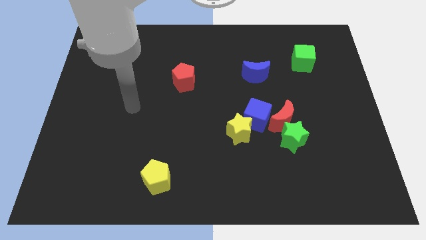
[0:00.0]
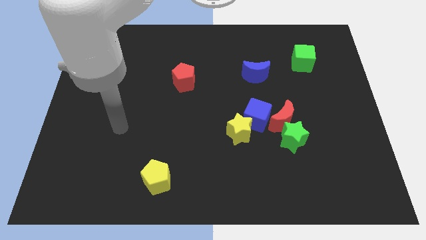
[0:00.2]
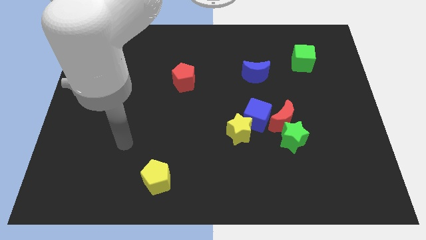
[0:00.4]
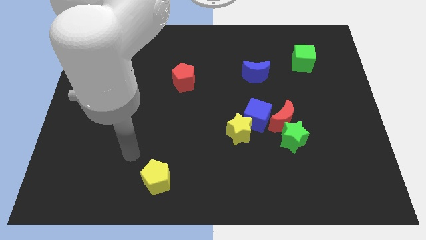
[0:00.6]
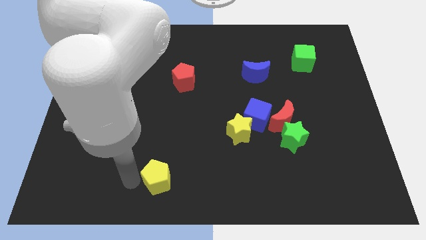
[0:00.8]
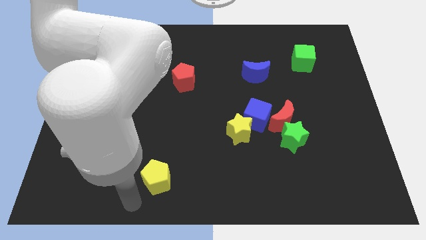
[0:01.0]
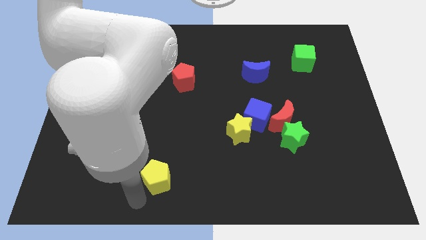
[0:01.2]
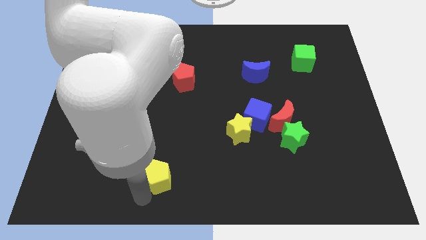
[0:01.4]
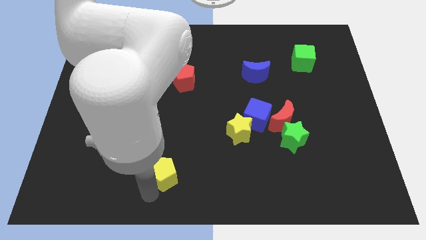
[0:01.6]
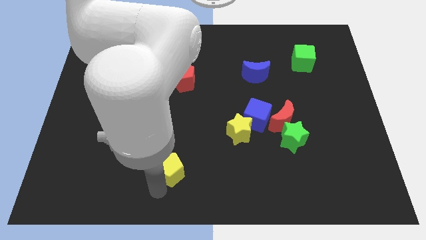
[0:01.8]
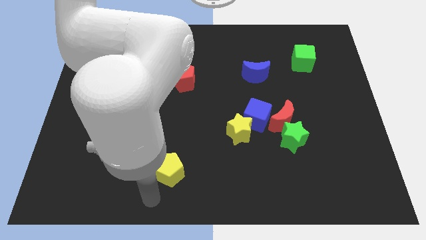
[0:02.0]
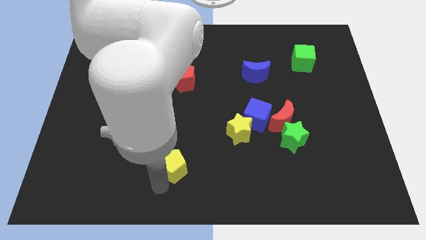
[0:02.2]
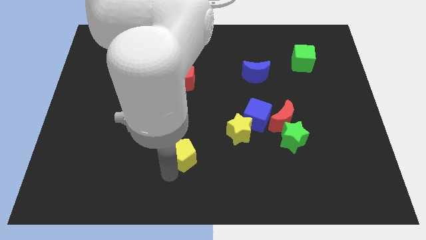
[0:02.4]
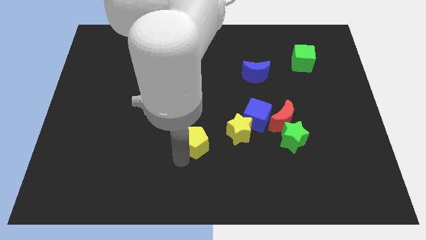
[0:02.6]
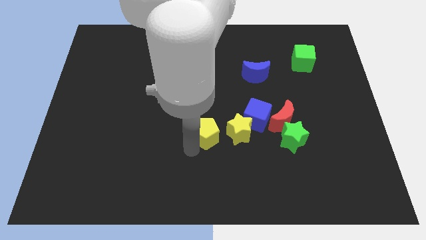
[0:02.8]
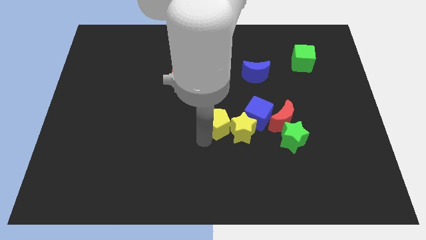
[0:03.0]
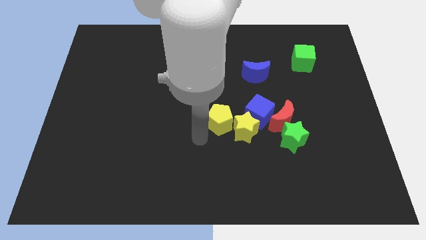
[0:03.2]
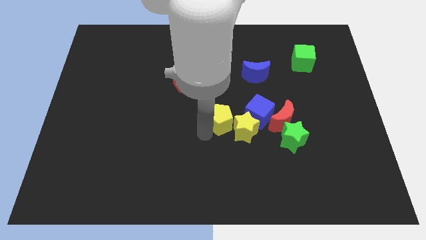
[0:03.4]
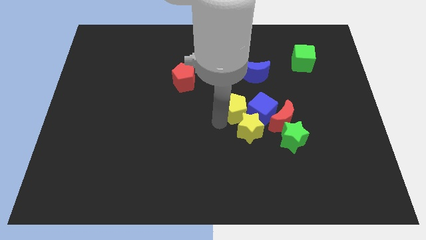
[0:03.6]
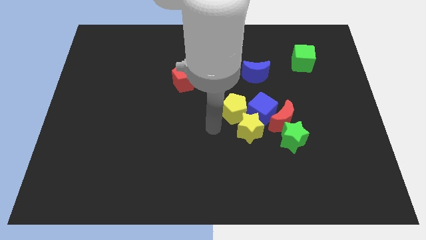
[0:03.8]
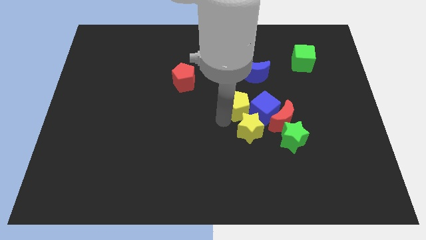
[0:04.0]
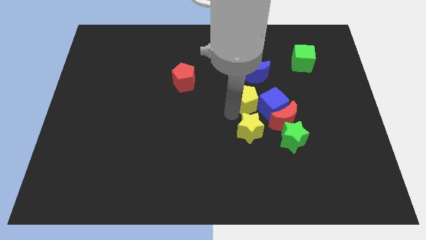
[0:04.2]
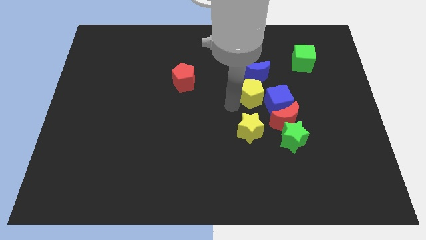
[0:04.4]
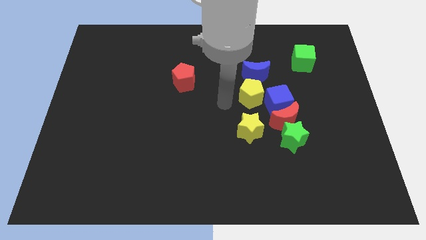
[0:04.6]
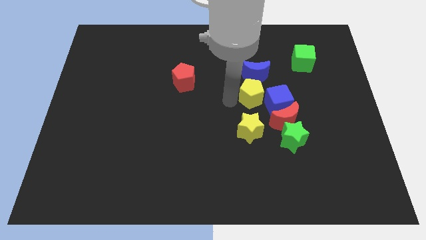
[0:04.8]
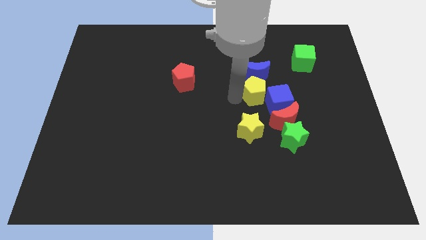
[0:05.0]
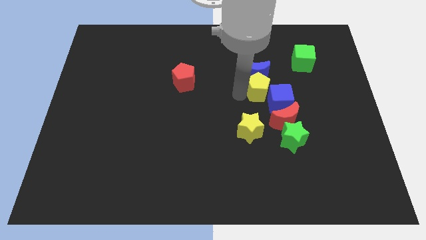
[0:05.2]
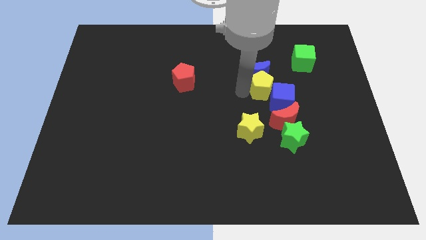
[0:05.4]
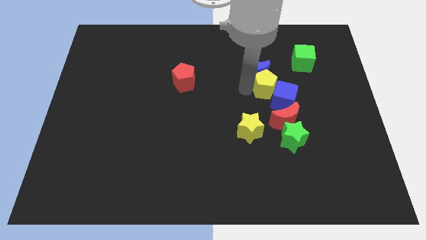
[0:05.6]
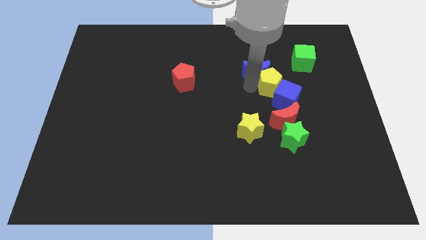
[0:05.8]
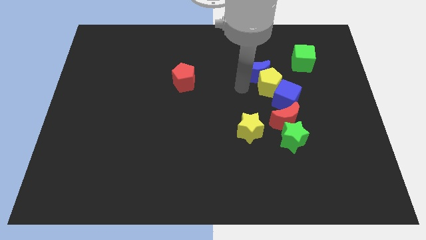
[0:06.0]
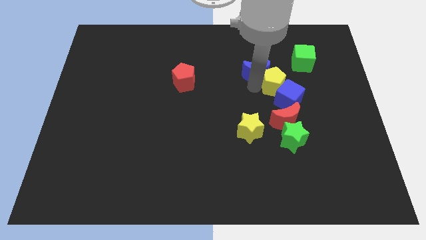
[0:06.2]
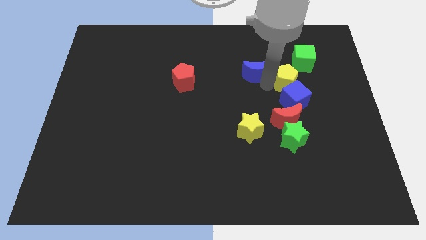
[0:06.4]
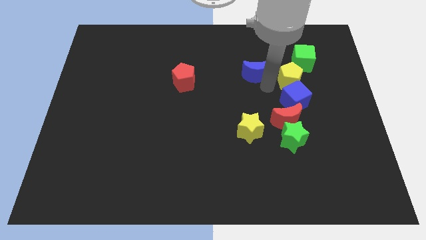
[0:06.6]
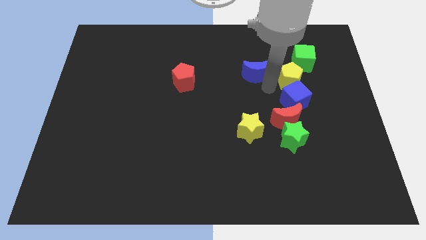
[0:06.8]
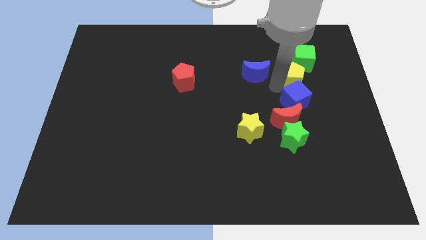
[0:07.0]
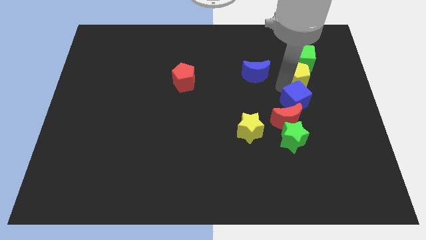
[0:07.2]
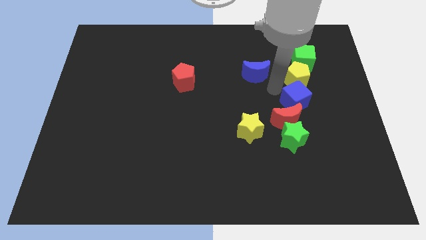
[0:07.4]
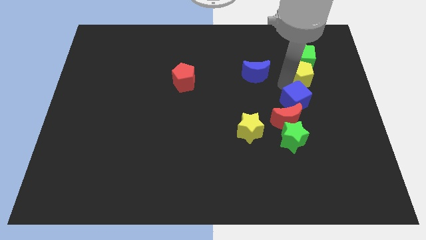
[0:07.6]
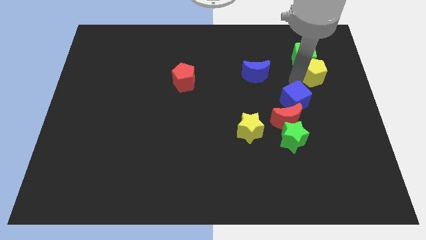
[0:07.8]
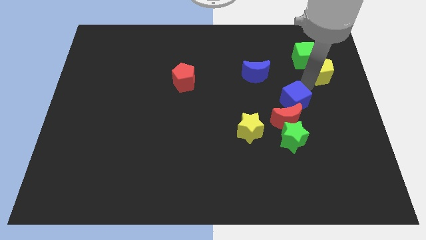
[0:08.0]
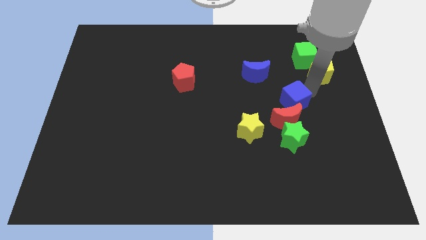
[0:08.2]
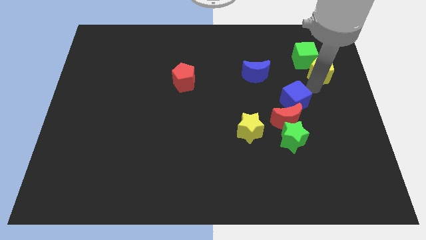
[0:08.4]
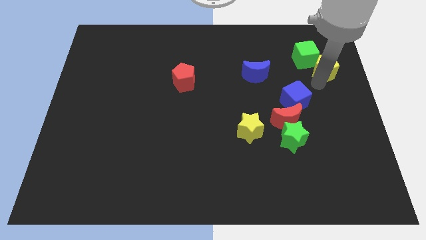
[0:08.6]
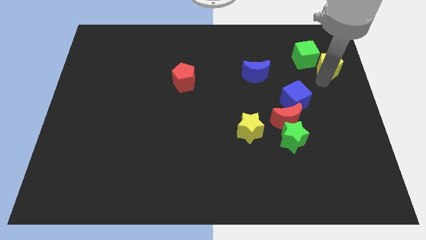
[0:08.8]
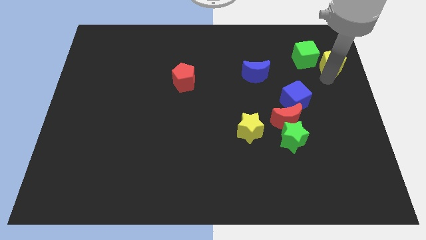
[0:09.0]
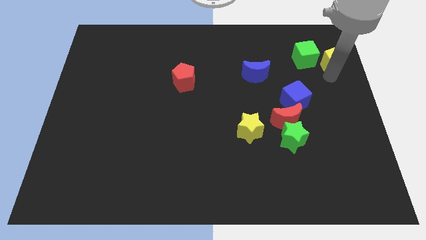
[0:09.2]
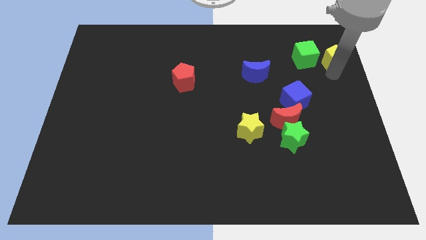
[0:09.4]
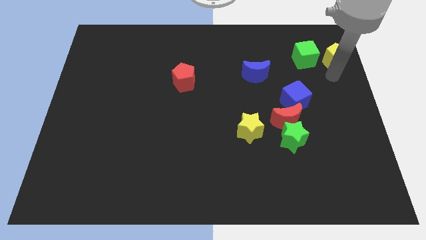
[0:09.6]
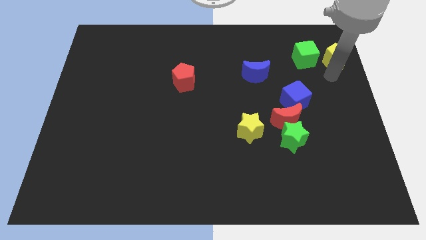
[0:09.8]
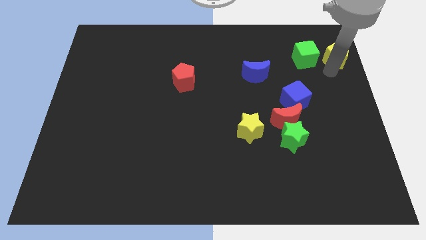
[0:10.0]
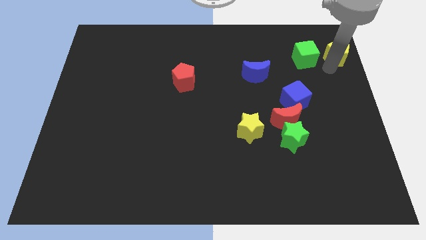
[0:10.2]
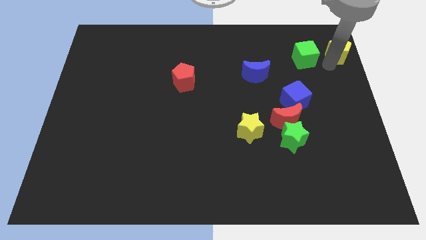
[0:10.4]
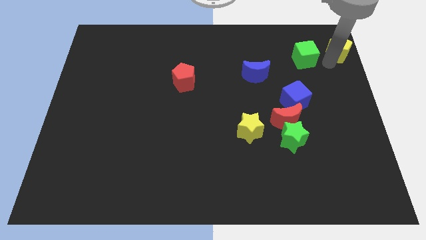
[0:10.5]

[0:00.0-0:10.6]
move the yellow pentagon to the upper right corner
